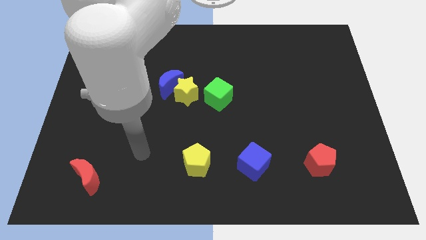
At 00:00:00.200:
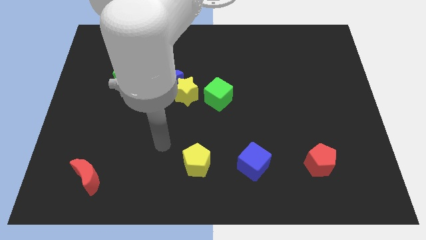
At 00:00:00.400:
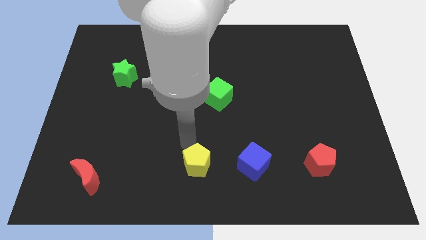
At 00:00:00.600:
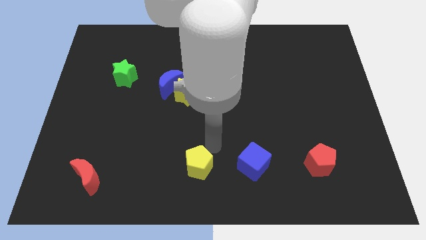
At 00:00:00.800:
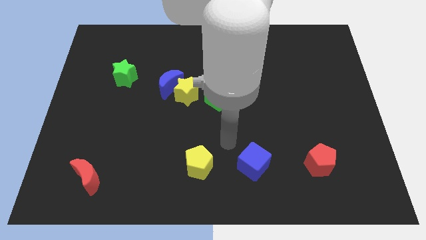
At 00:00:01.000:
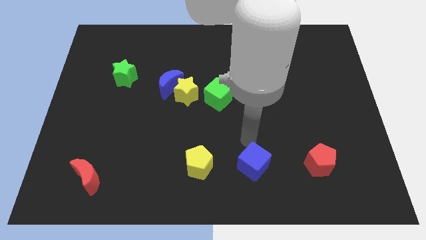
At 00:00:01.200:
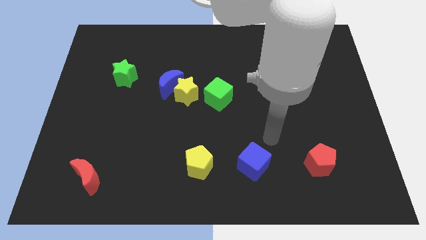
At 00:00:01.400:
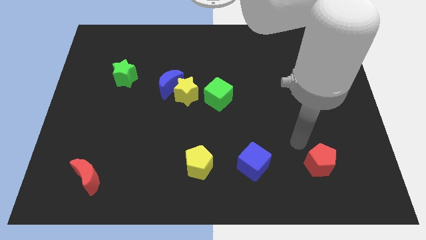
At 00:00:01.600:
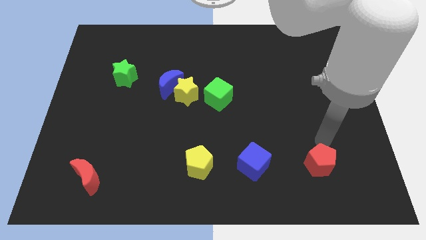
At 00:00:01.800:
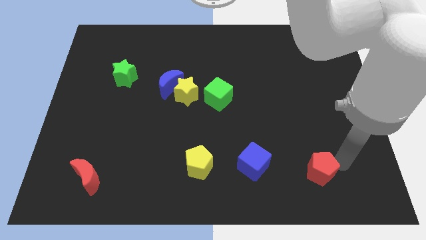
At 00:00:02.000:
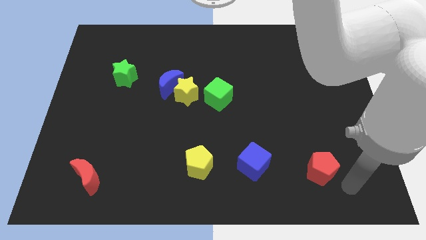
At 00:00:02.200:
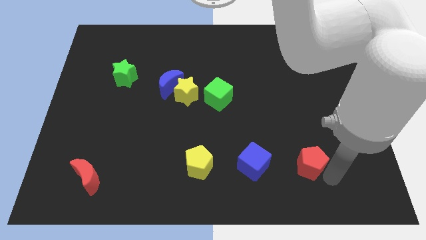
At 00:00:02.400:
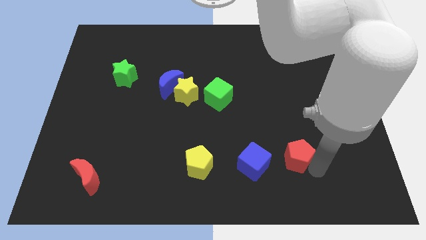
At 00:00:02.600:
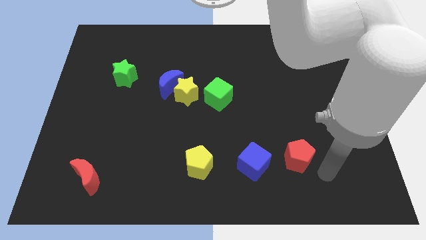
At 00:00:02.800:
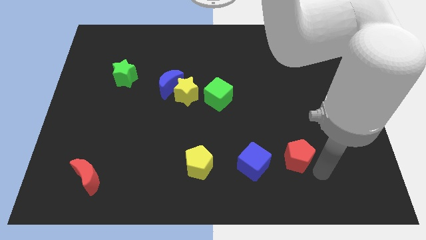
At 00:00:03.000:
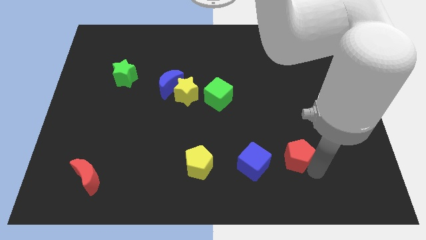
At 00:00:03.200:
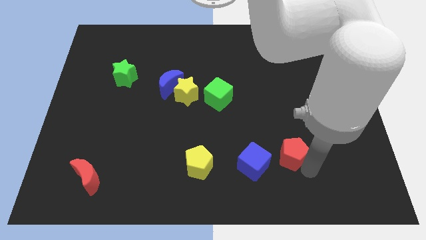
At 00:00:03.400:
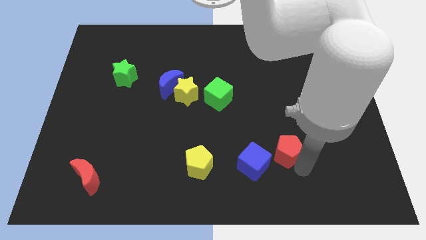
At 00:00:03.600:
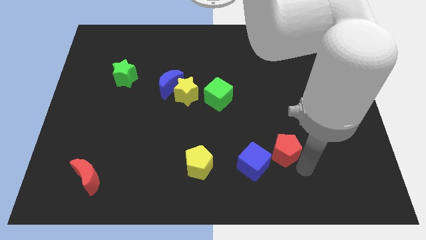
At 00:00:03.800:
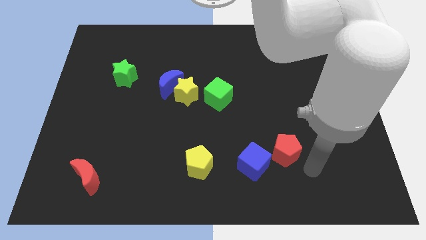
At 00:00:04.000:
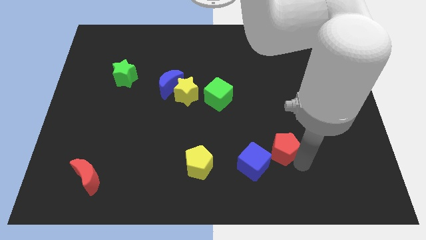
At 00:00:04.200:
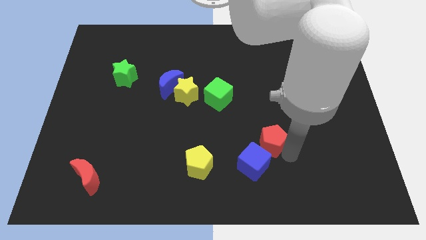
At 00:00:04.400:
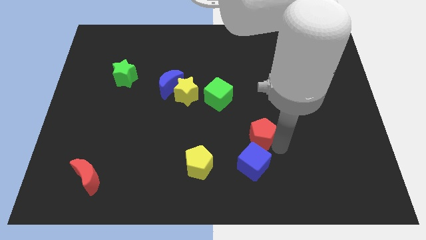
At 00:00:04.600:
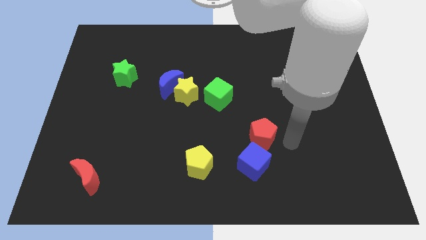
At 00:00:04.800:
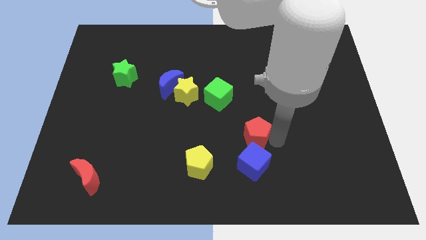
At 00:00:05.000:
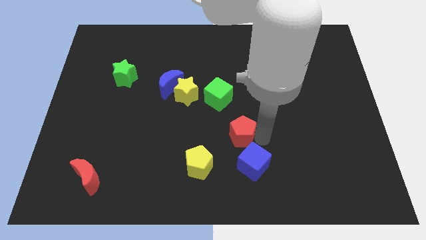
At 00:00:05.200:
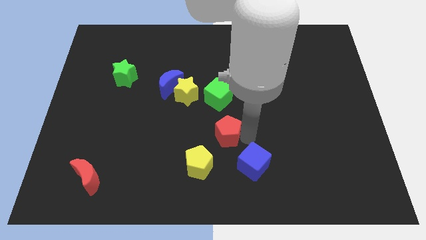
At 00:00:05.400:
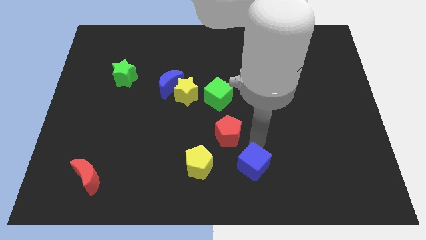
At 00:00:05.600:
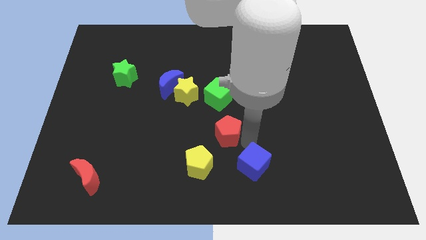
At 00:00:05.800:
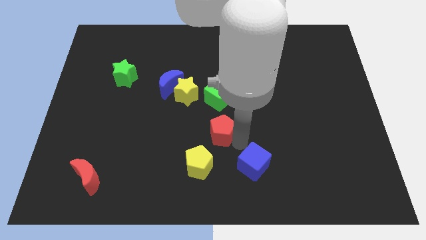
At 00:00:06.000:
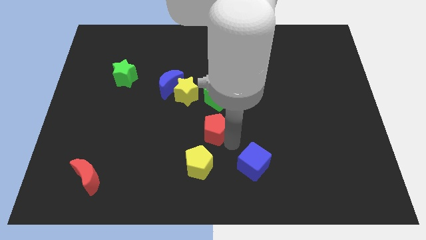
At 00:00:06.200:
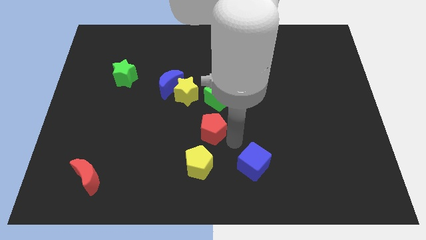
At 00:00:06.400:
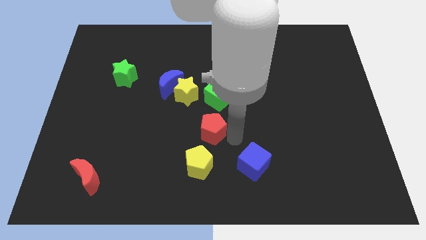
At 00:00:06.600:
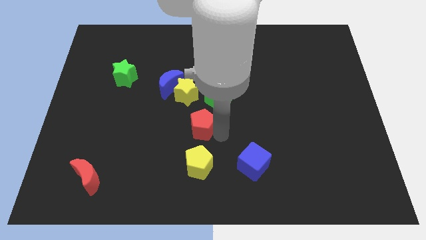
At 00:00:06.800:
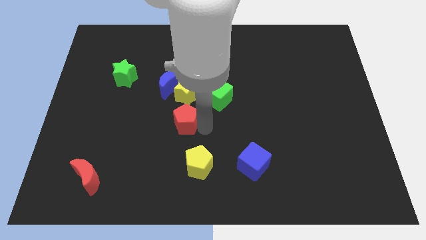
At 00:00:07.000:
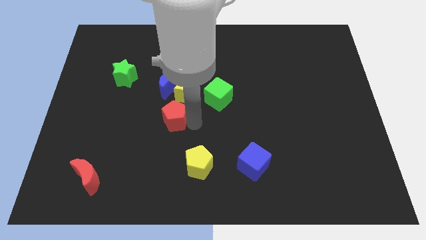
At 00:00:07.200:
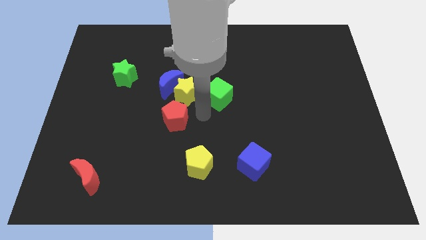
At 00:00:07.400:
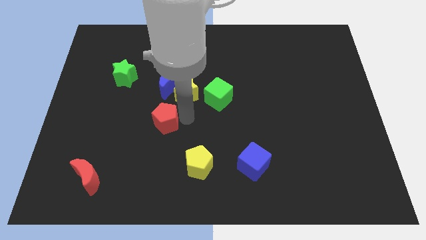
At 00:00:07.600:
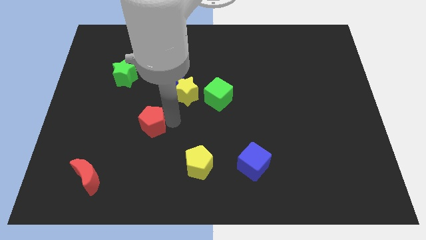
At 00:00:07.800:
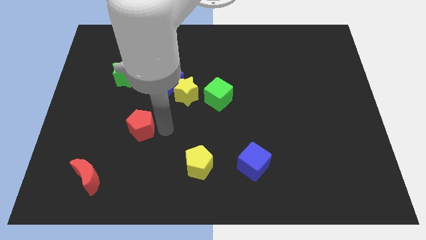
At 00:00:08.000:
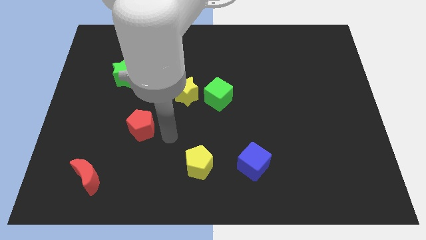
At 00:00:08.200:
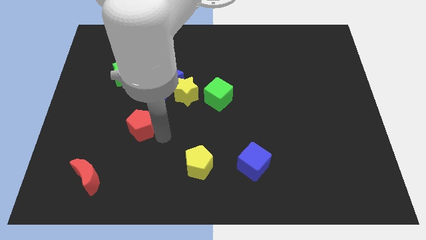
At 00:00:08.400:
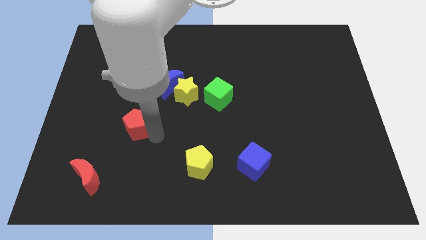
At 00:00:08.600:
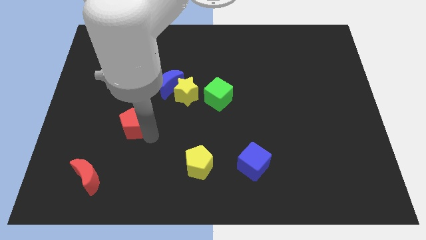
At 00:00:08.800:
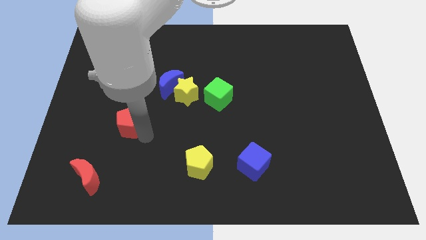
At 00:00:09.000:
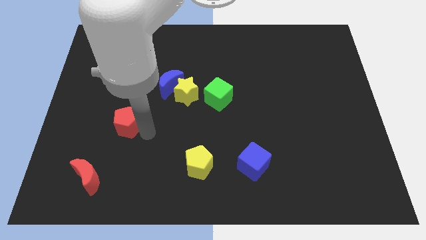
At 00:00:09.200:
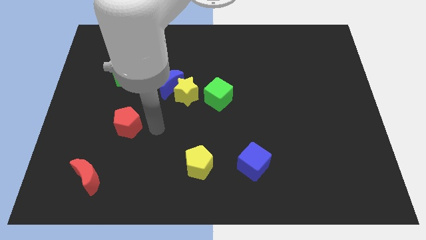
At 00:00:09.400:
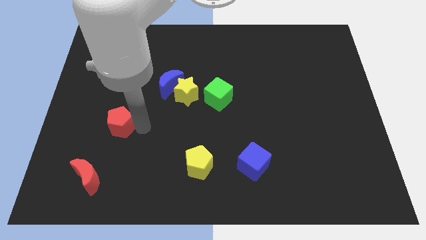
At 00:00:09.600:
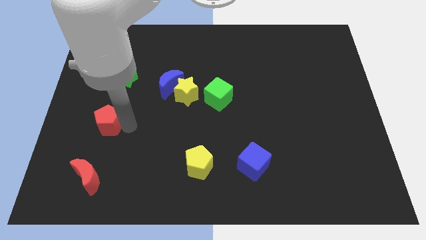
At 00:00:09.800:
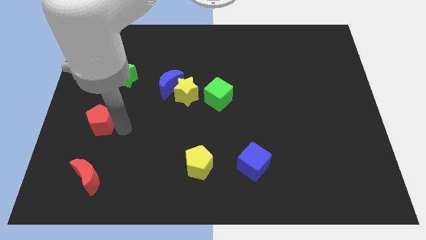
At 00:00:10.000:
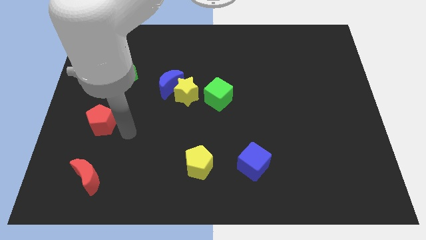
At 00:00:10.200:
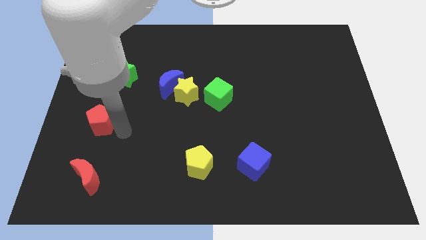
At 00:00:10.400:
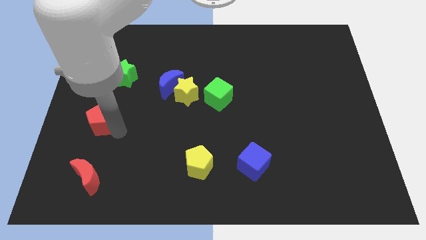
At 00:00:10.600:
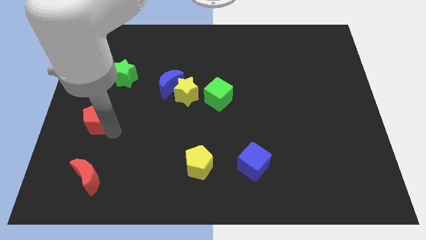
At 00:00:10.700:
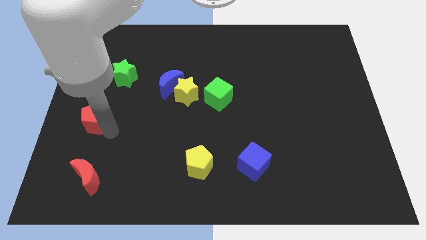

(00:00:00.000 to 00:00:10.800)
move the red pentagon to the center left

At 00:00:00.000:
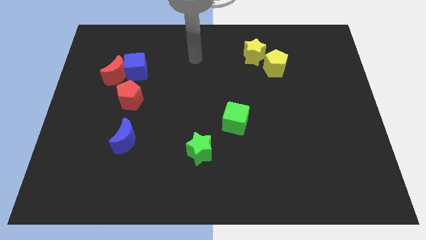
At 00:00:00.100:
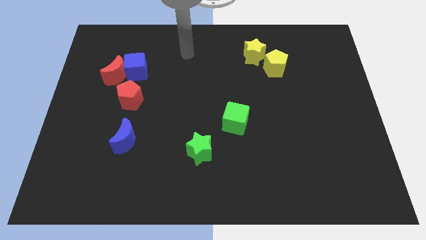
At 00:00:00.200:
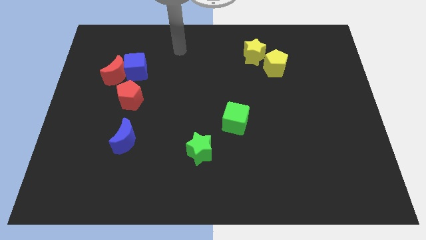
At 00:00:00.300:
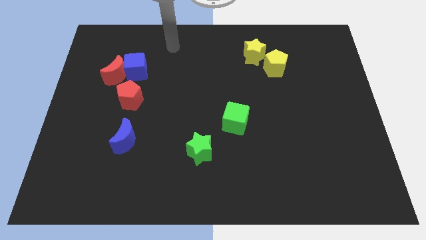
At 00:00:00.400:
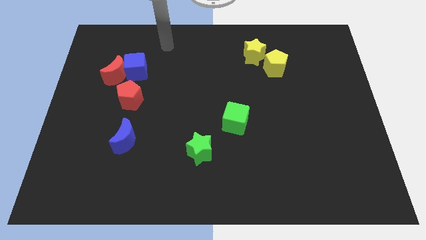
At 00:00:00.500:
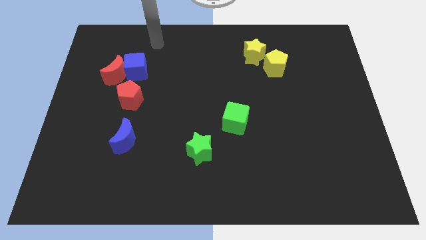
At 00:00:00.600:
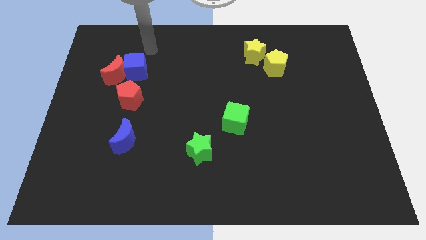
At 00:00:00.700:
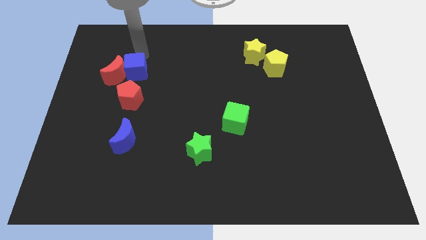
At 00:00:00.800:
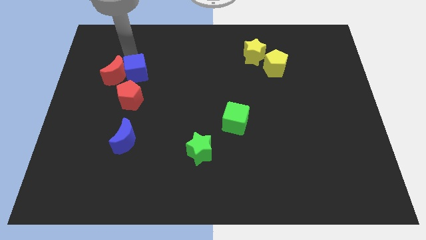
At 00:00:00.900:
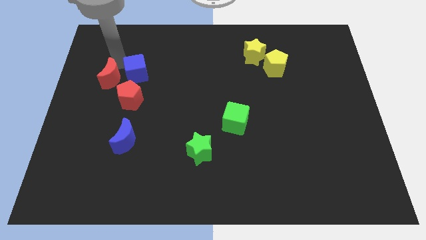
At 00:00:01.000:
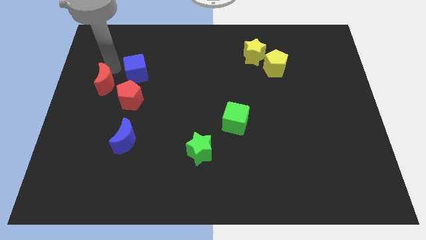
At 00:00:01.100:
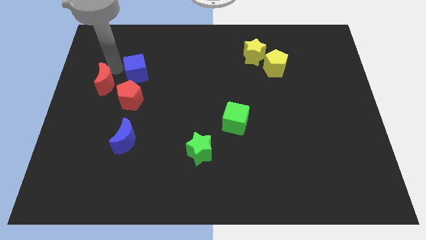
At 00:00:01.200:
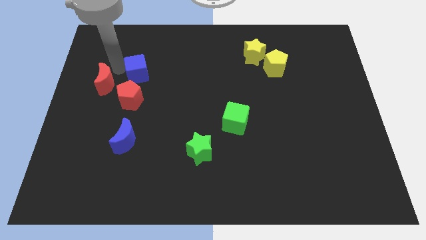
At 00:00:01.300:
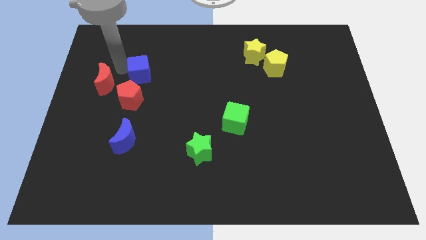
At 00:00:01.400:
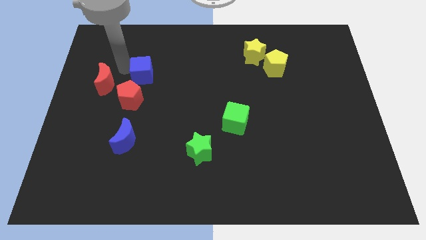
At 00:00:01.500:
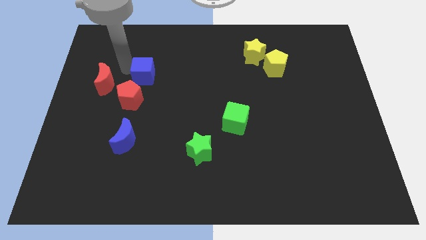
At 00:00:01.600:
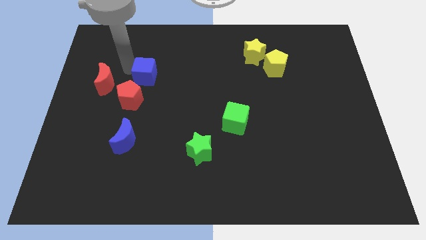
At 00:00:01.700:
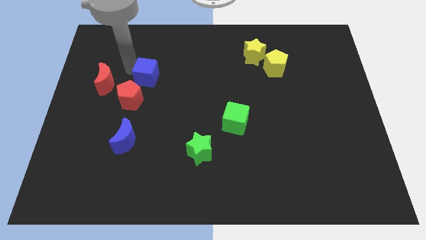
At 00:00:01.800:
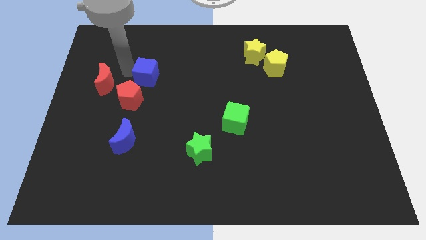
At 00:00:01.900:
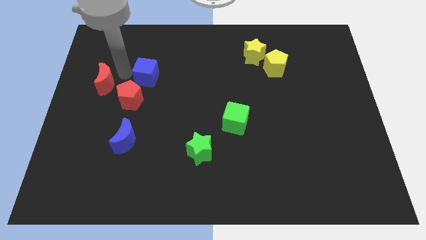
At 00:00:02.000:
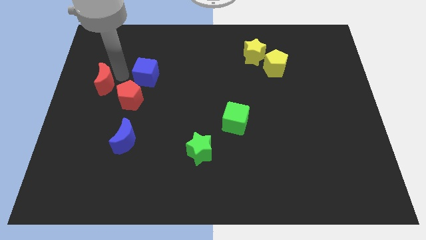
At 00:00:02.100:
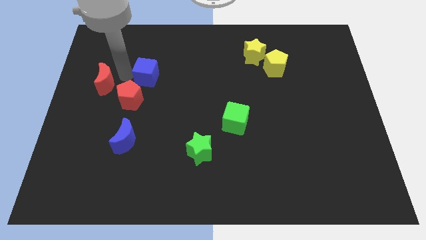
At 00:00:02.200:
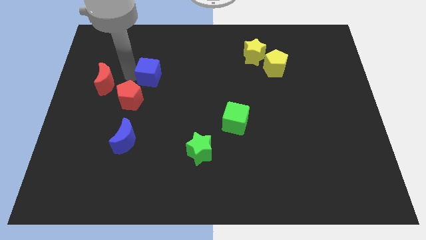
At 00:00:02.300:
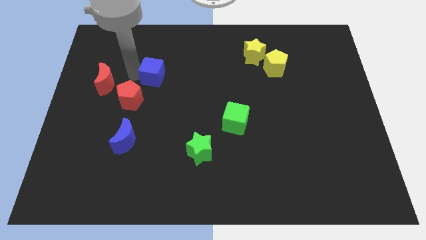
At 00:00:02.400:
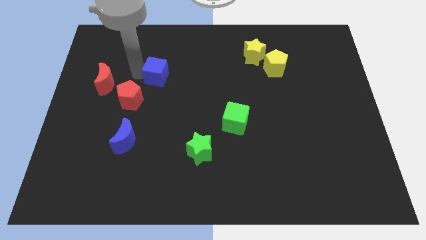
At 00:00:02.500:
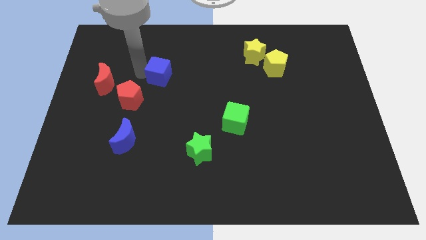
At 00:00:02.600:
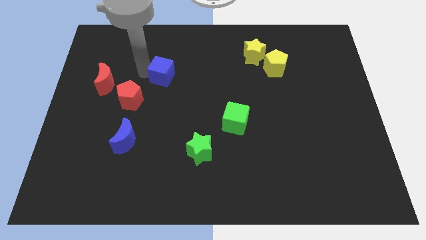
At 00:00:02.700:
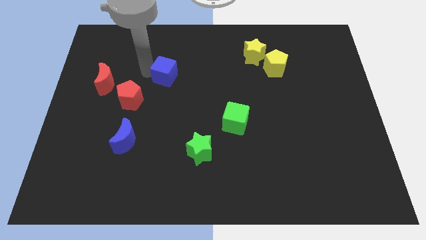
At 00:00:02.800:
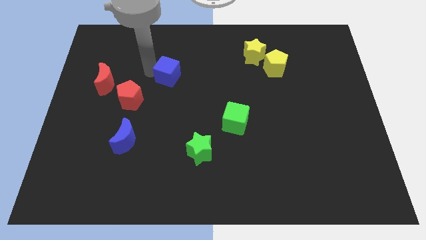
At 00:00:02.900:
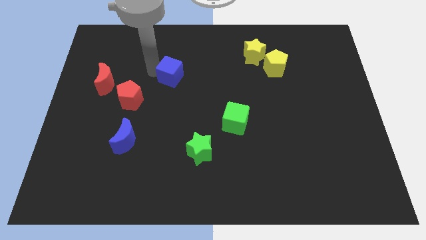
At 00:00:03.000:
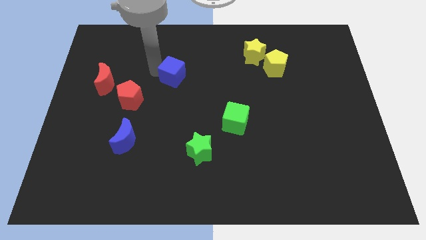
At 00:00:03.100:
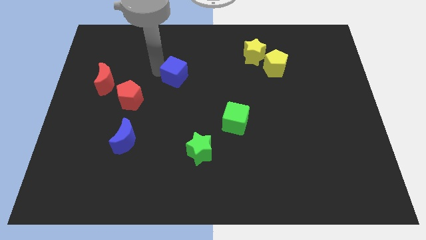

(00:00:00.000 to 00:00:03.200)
move the blue cube to the center of the board
